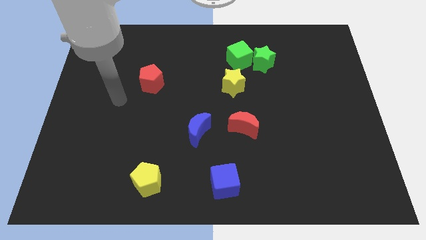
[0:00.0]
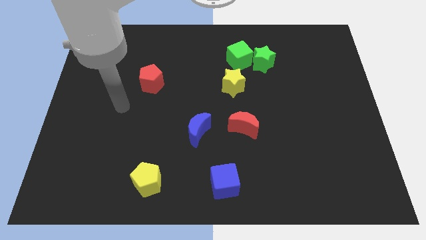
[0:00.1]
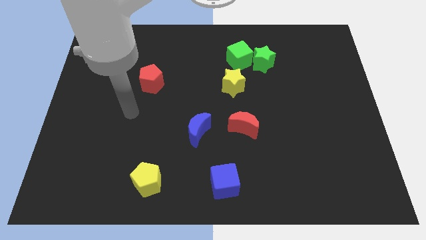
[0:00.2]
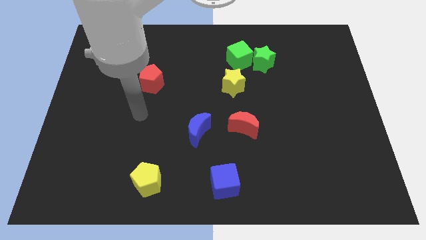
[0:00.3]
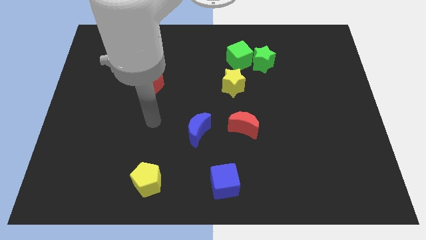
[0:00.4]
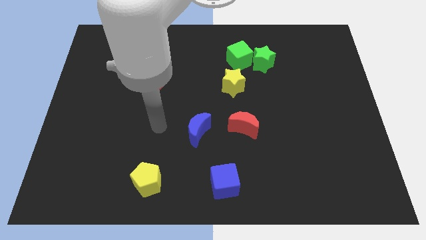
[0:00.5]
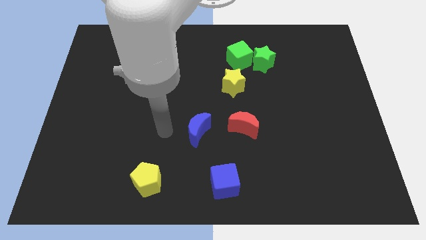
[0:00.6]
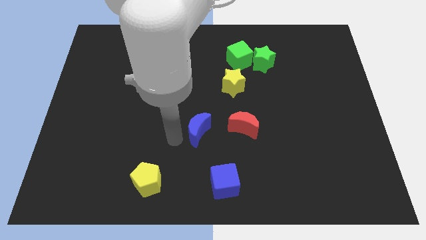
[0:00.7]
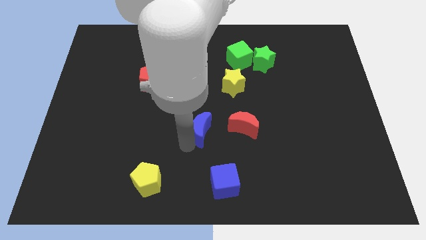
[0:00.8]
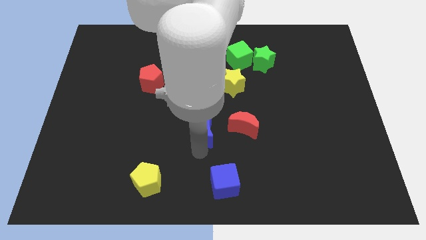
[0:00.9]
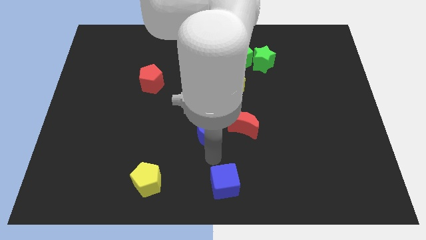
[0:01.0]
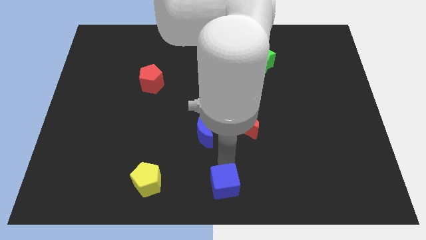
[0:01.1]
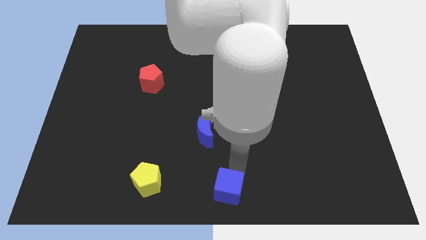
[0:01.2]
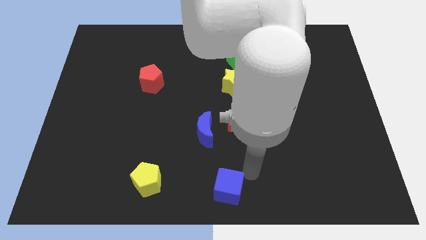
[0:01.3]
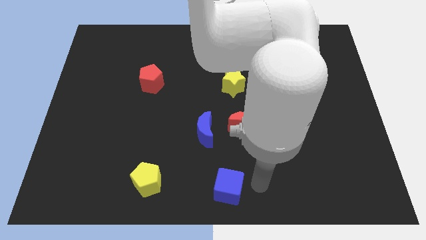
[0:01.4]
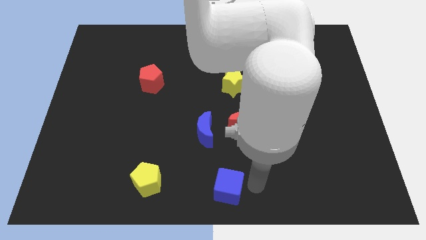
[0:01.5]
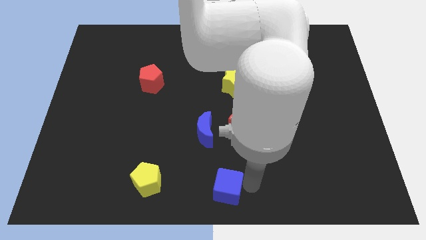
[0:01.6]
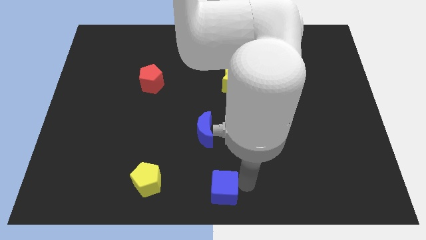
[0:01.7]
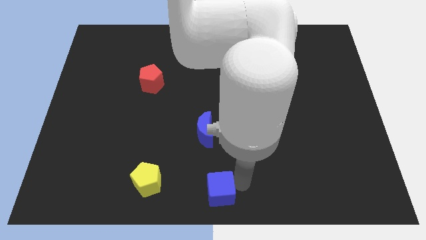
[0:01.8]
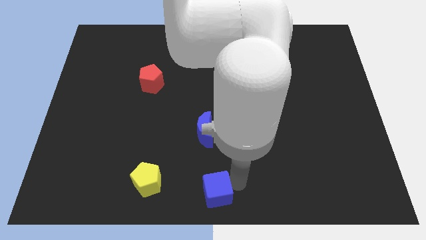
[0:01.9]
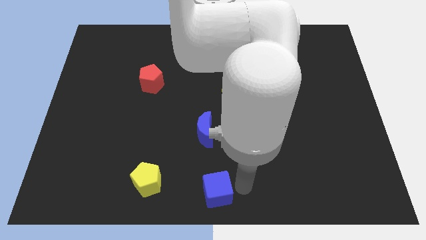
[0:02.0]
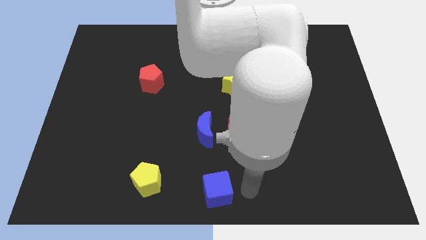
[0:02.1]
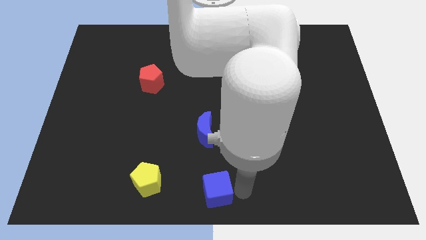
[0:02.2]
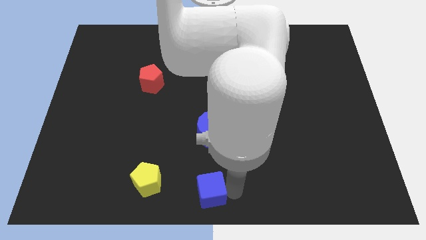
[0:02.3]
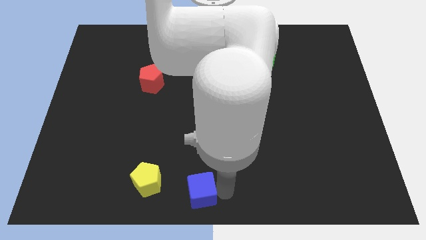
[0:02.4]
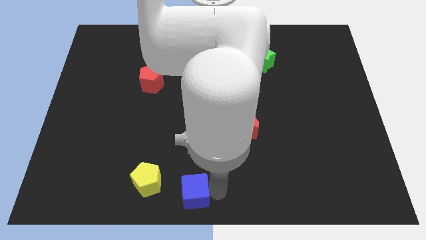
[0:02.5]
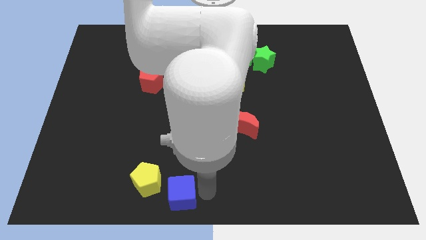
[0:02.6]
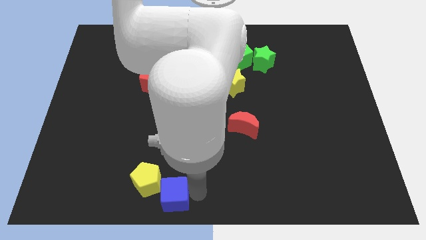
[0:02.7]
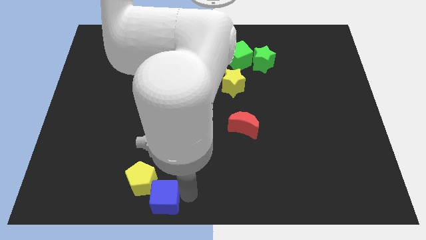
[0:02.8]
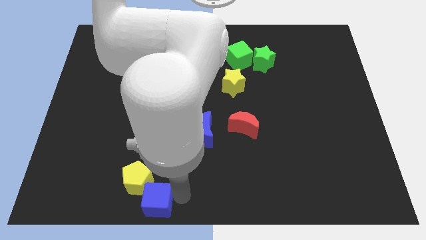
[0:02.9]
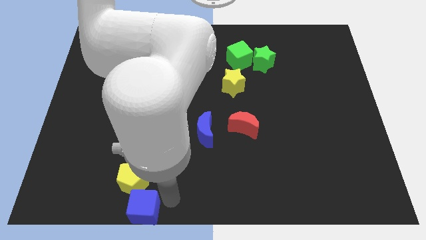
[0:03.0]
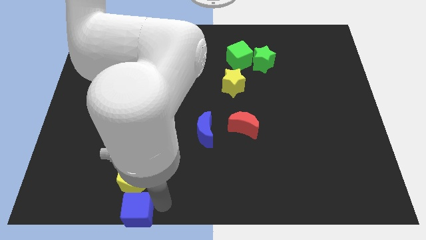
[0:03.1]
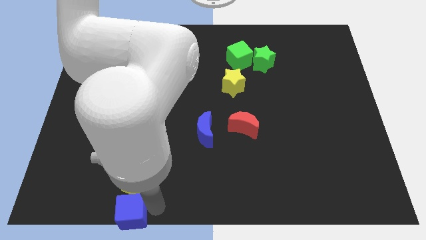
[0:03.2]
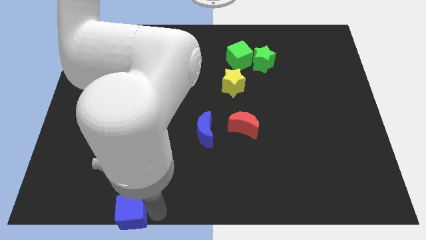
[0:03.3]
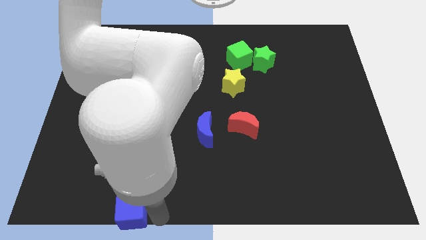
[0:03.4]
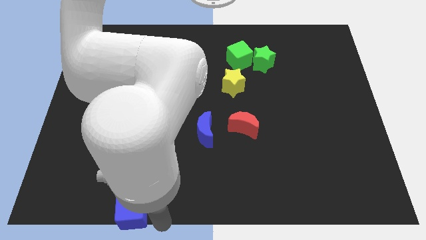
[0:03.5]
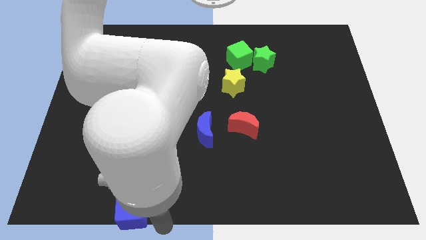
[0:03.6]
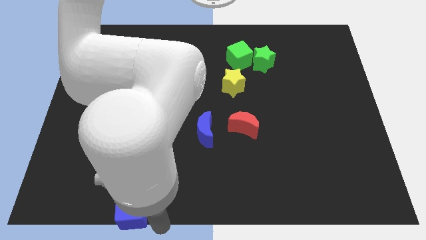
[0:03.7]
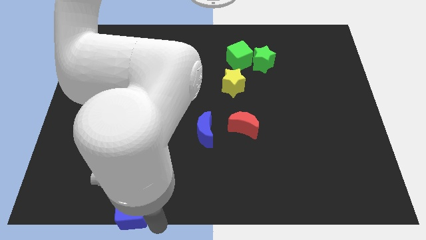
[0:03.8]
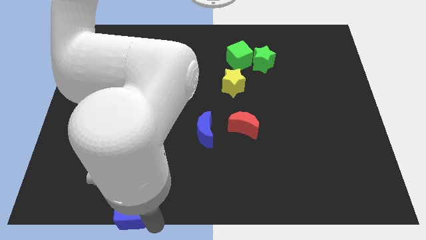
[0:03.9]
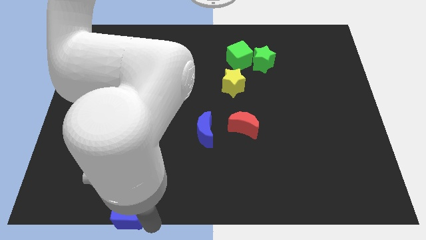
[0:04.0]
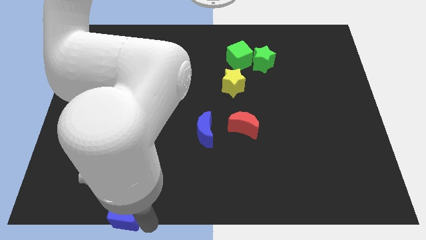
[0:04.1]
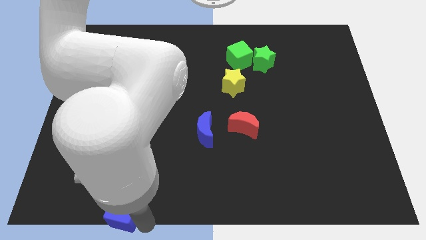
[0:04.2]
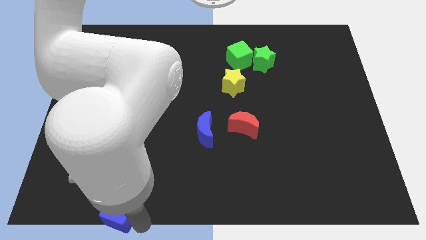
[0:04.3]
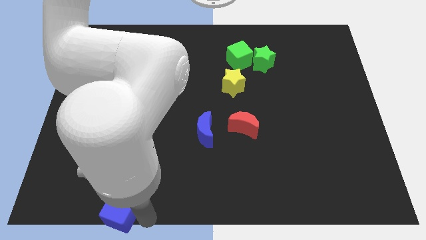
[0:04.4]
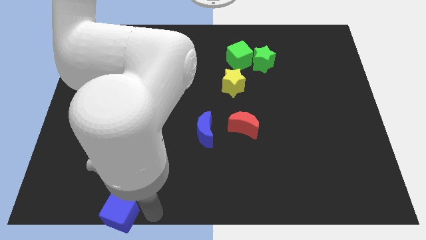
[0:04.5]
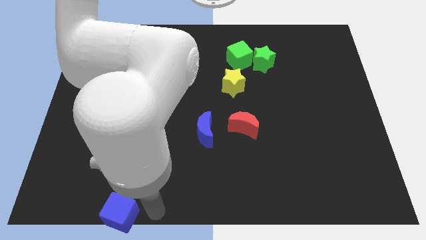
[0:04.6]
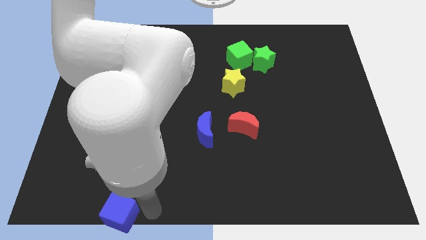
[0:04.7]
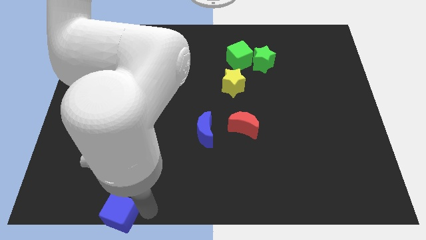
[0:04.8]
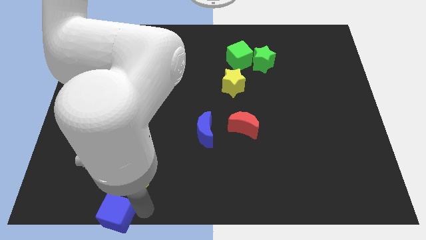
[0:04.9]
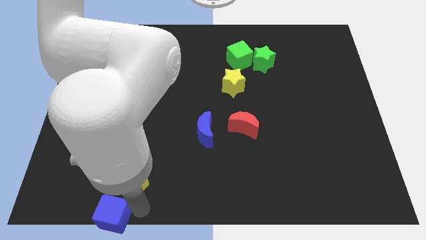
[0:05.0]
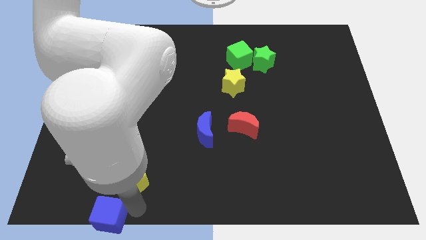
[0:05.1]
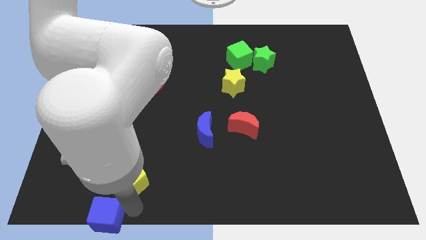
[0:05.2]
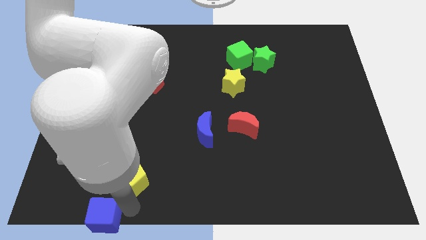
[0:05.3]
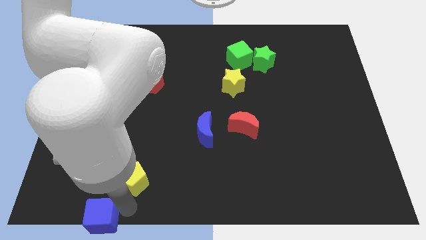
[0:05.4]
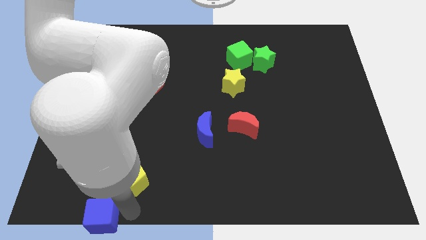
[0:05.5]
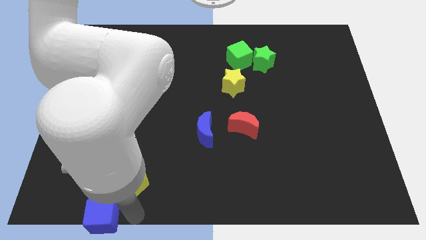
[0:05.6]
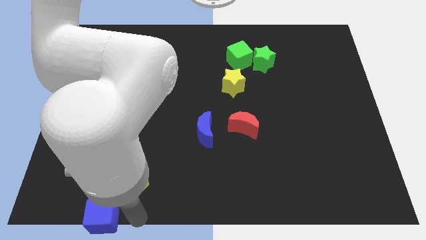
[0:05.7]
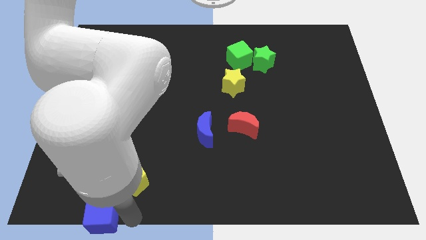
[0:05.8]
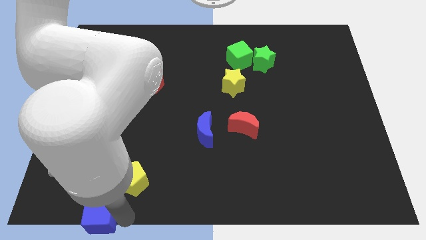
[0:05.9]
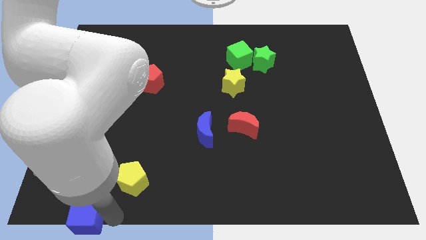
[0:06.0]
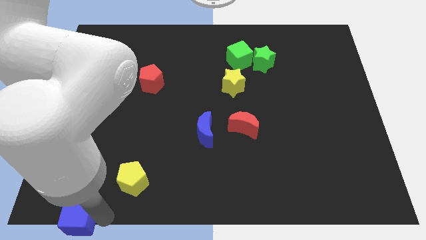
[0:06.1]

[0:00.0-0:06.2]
put the blue cube to the bottom left of the board
